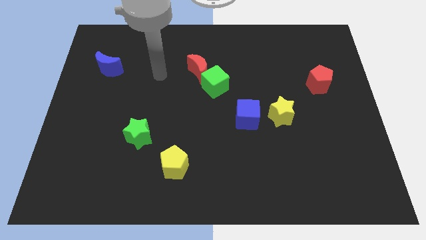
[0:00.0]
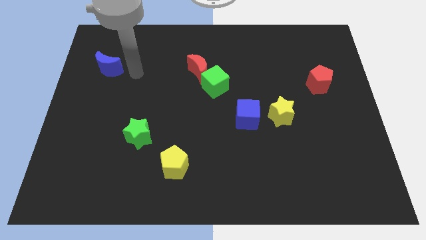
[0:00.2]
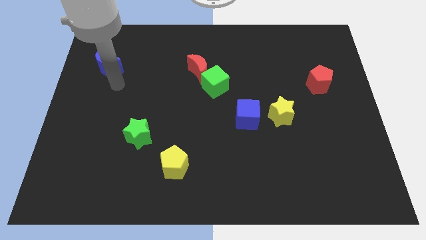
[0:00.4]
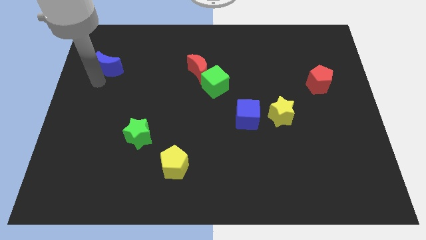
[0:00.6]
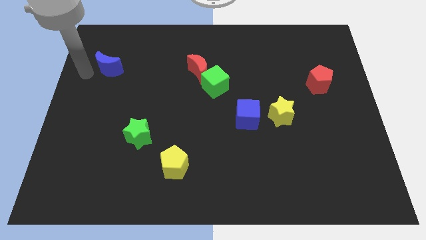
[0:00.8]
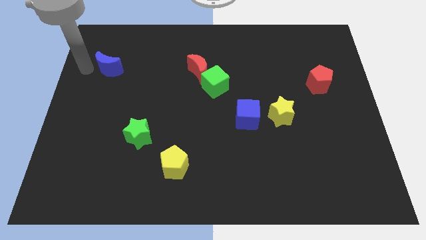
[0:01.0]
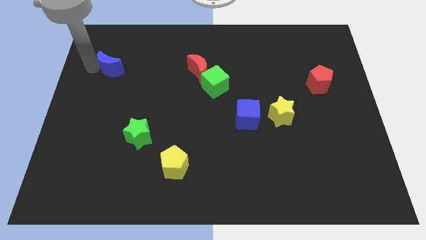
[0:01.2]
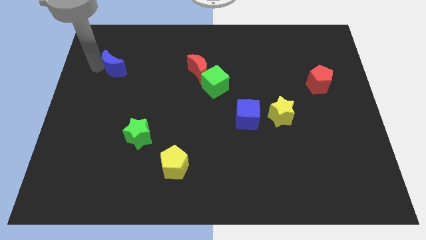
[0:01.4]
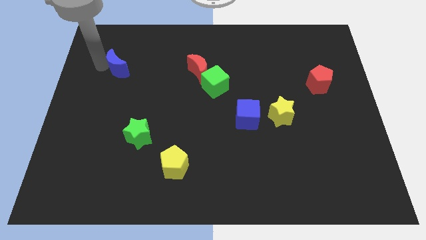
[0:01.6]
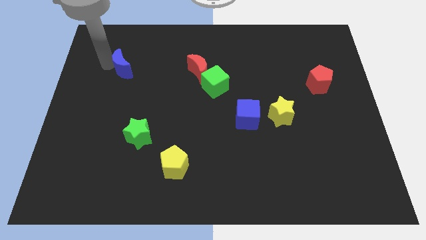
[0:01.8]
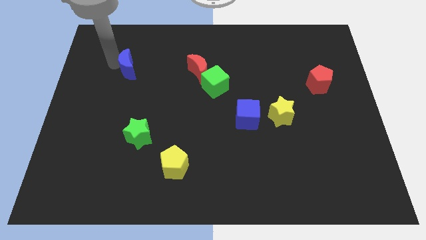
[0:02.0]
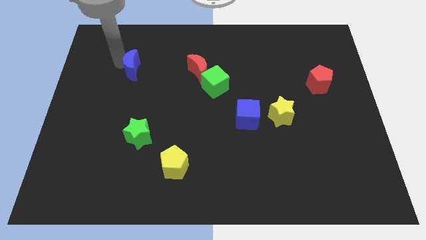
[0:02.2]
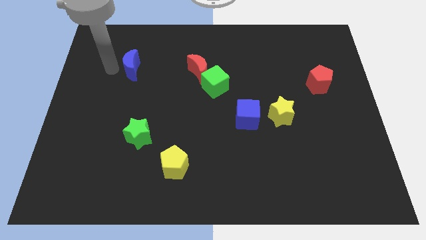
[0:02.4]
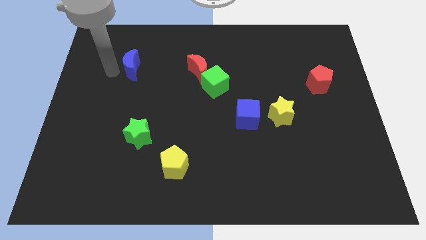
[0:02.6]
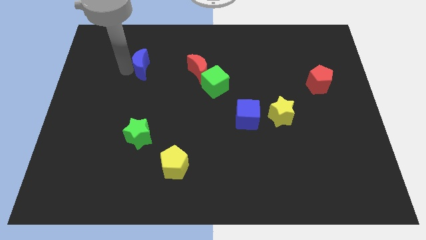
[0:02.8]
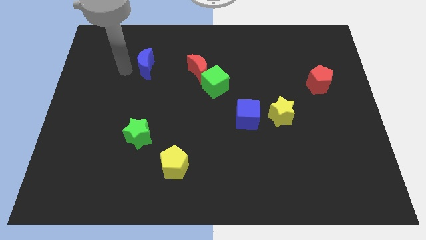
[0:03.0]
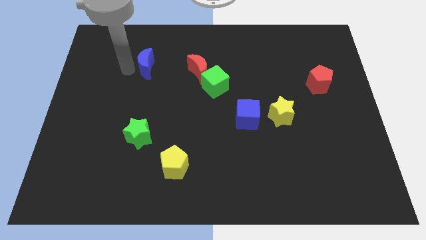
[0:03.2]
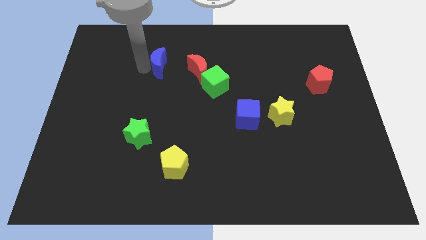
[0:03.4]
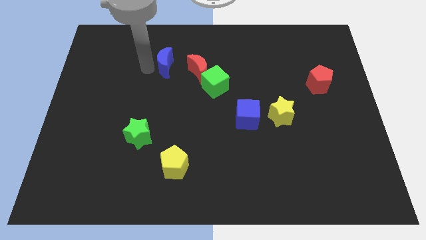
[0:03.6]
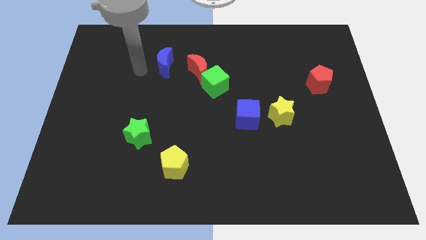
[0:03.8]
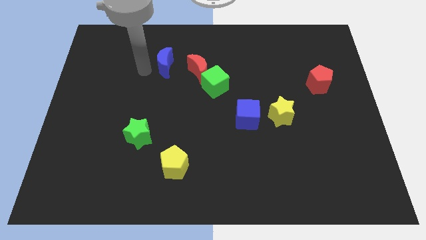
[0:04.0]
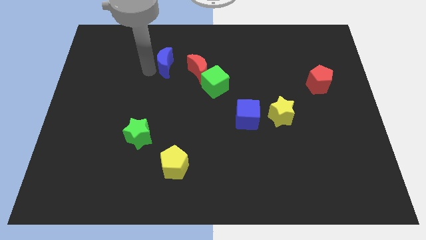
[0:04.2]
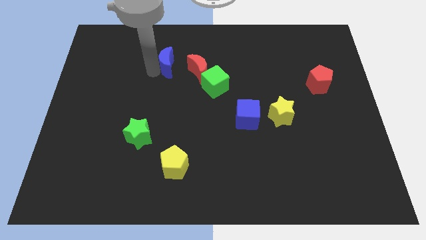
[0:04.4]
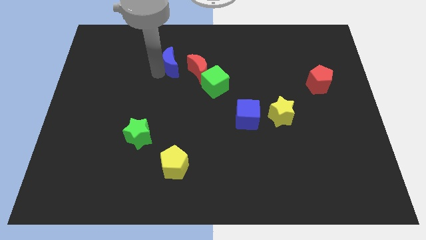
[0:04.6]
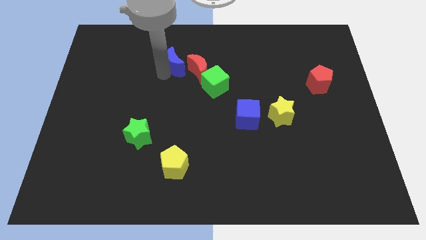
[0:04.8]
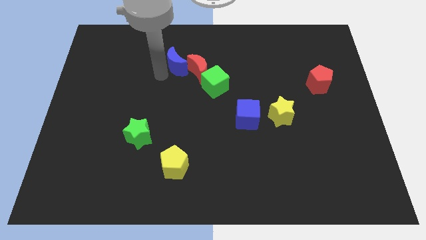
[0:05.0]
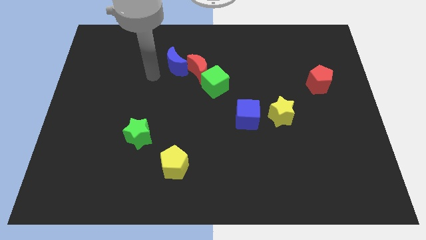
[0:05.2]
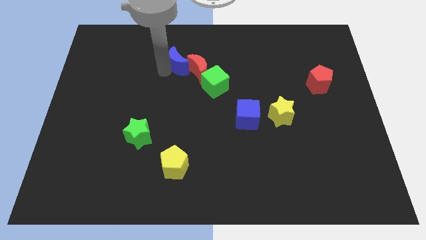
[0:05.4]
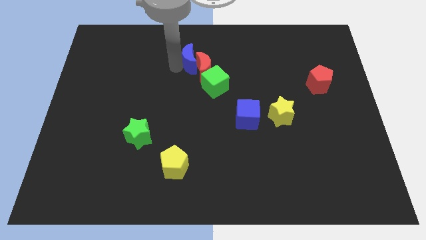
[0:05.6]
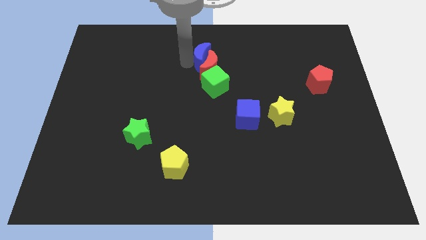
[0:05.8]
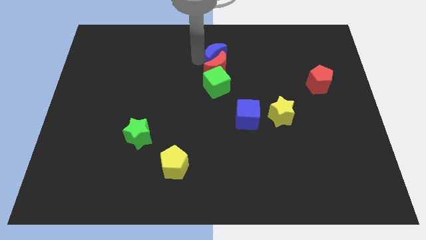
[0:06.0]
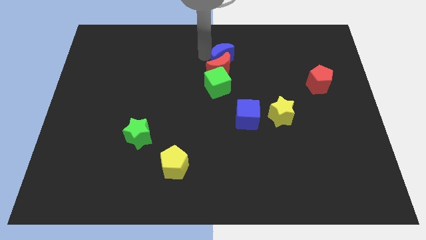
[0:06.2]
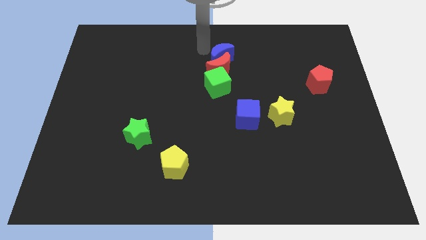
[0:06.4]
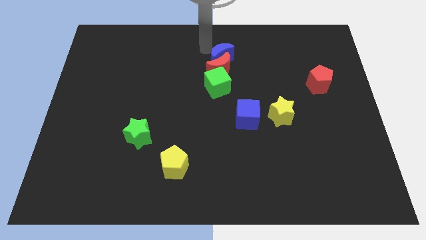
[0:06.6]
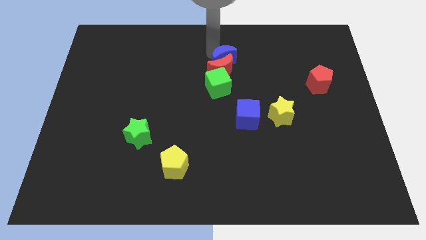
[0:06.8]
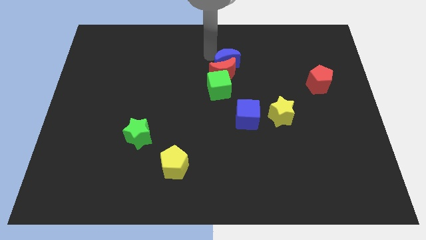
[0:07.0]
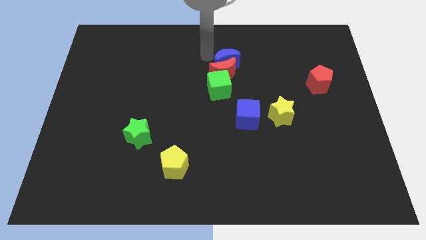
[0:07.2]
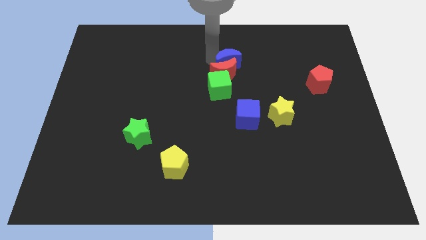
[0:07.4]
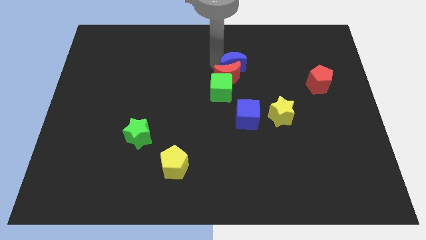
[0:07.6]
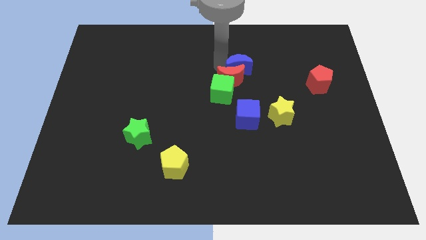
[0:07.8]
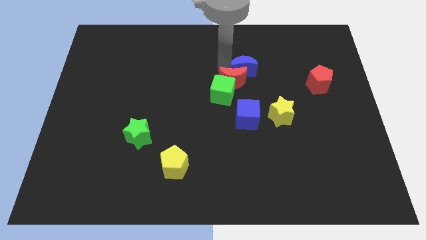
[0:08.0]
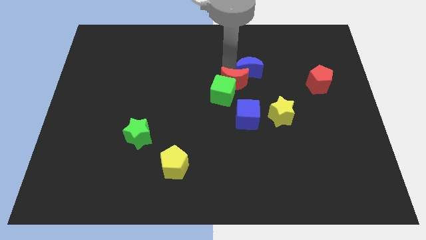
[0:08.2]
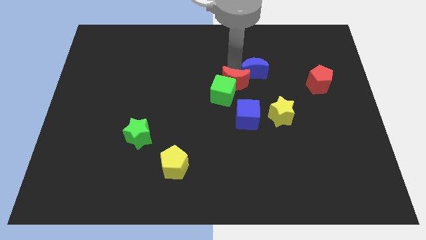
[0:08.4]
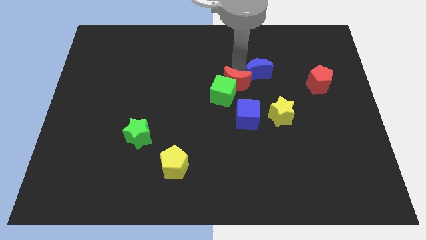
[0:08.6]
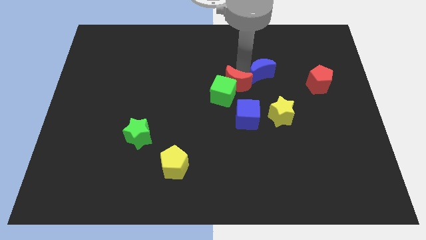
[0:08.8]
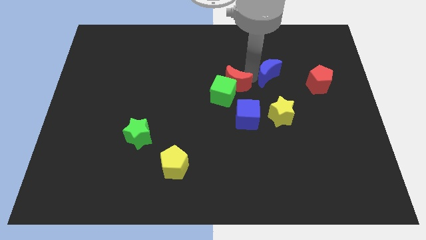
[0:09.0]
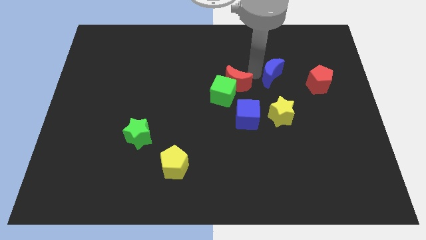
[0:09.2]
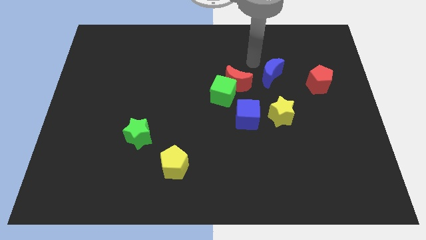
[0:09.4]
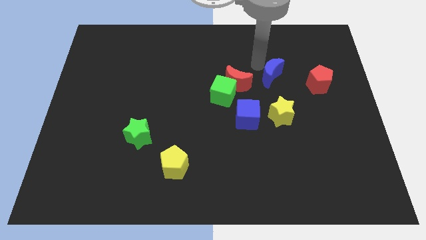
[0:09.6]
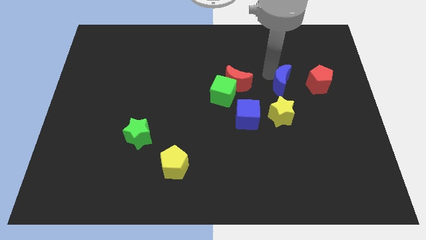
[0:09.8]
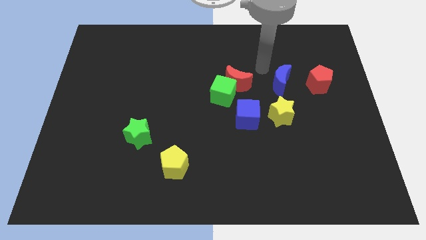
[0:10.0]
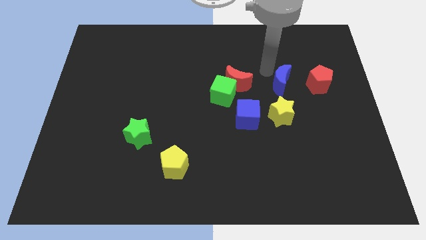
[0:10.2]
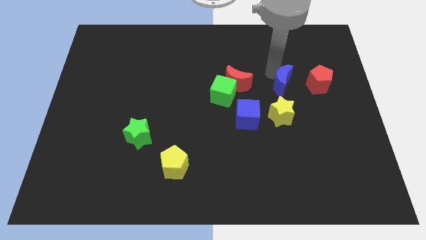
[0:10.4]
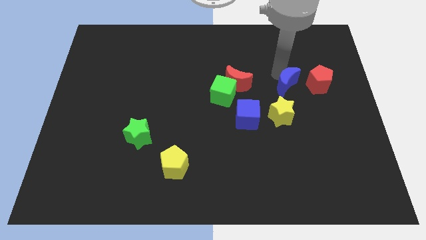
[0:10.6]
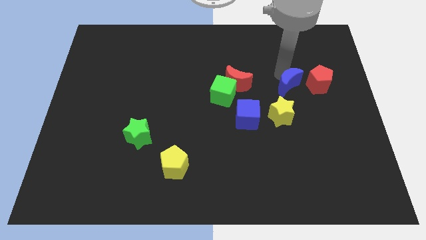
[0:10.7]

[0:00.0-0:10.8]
move the blue moon to the bottom left side of the red pentagon

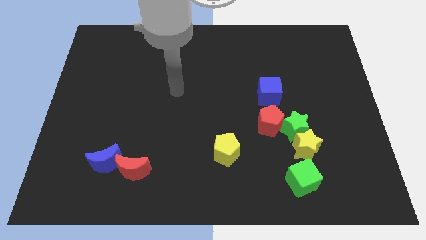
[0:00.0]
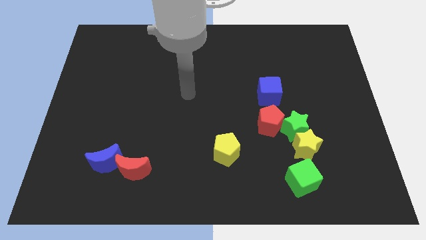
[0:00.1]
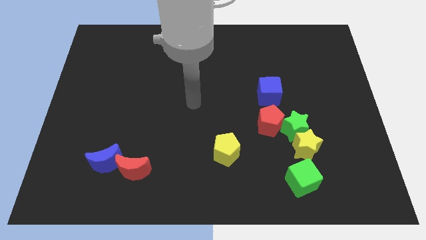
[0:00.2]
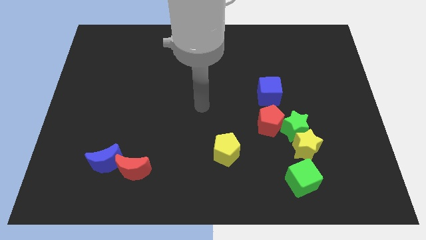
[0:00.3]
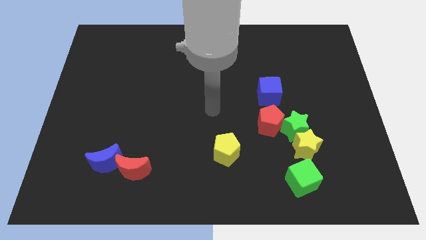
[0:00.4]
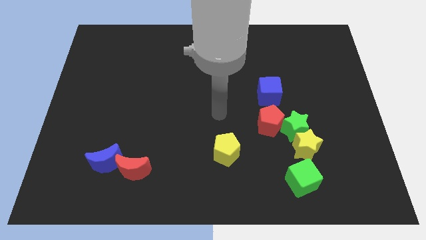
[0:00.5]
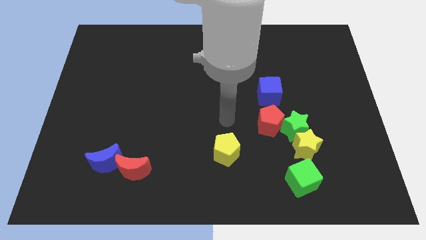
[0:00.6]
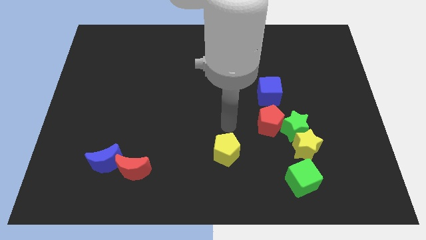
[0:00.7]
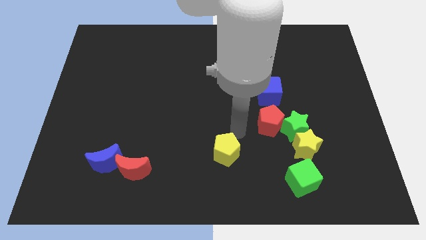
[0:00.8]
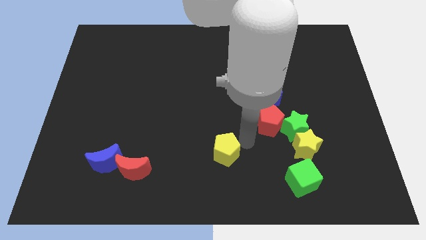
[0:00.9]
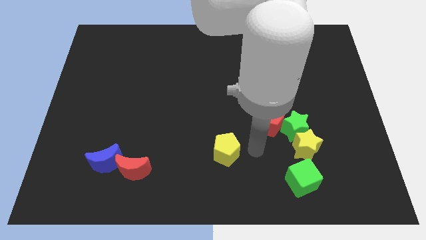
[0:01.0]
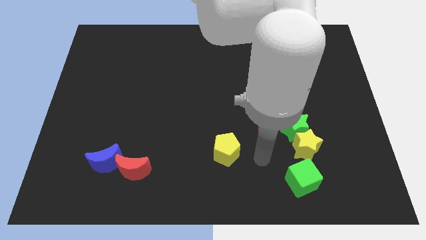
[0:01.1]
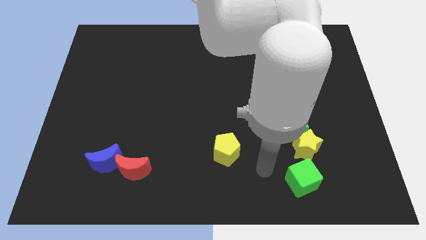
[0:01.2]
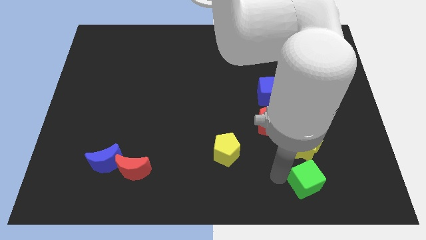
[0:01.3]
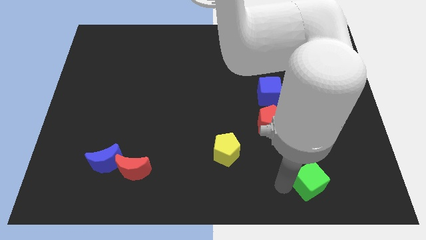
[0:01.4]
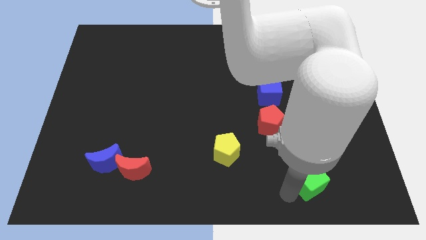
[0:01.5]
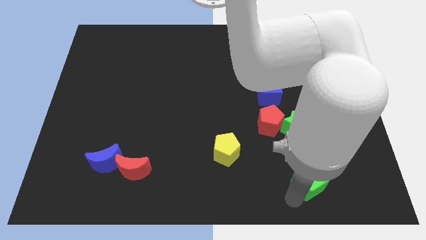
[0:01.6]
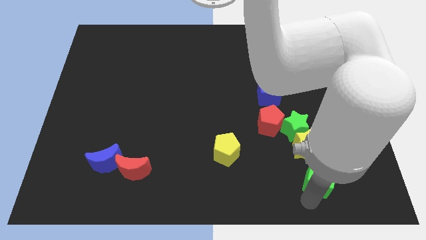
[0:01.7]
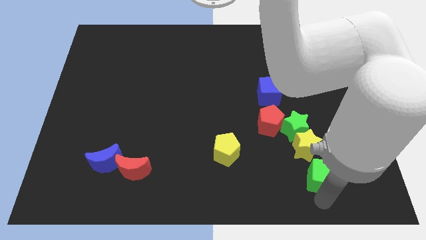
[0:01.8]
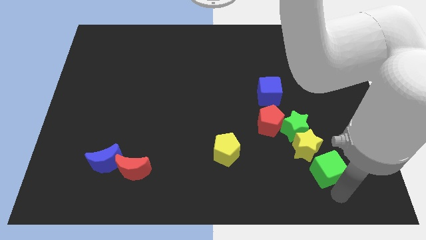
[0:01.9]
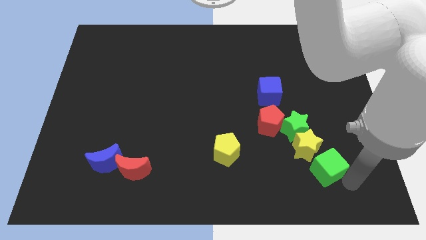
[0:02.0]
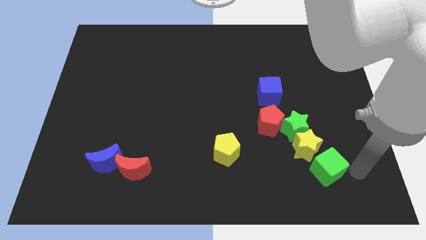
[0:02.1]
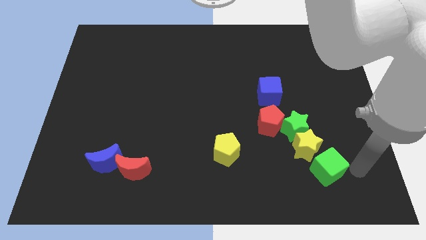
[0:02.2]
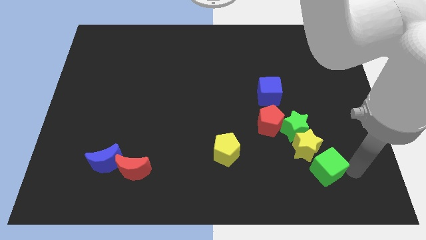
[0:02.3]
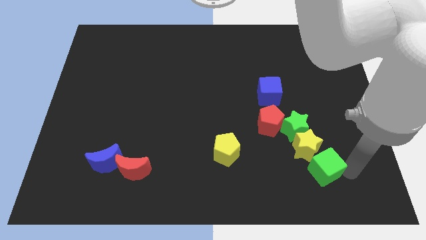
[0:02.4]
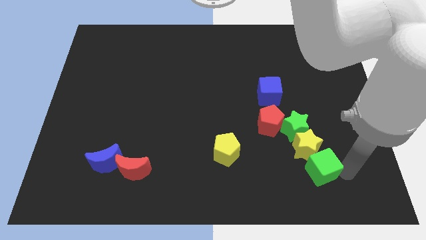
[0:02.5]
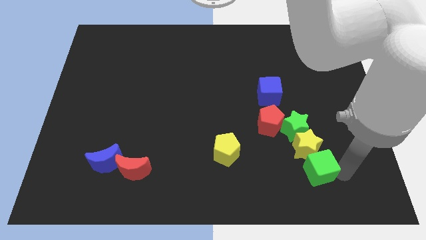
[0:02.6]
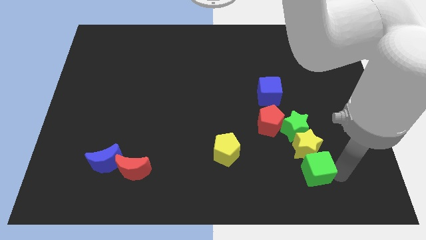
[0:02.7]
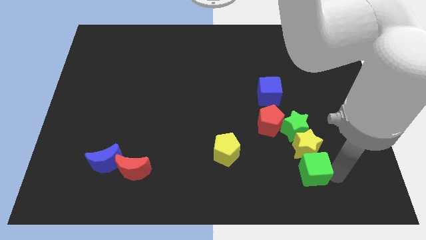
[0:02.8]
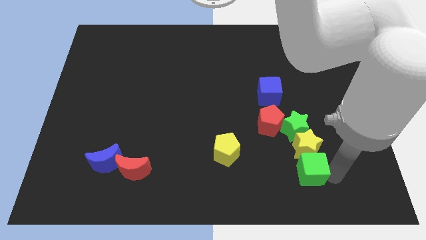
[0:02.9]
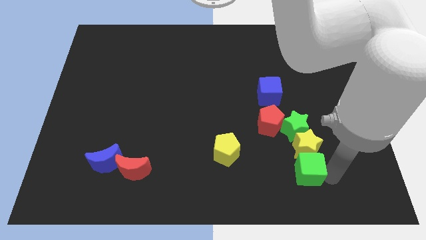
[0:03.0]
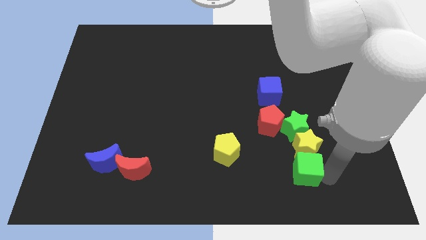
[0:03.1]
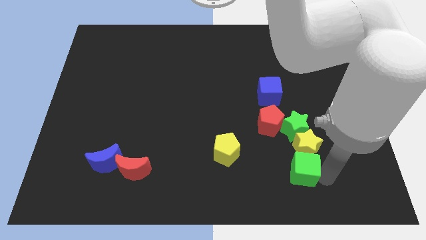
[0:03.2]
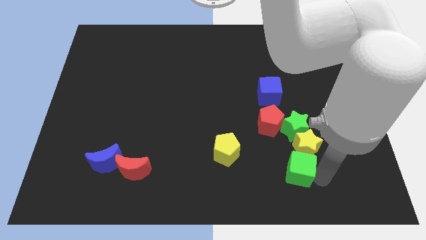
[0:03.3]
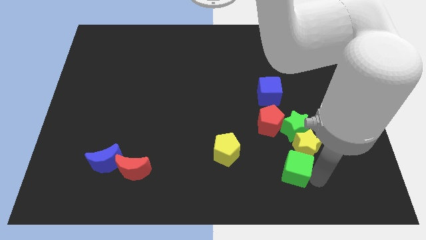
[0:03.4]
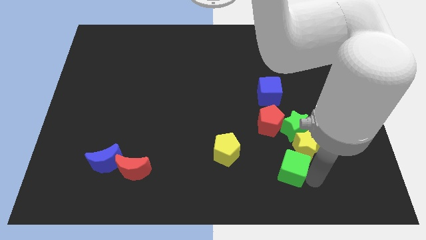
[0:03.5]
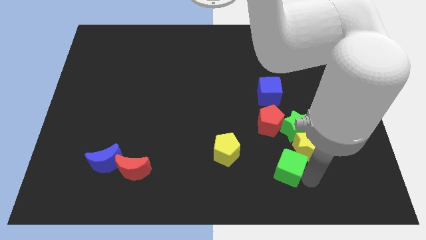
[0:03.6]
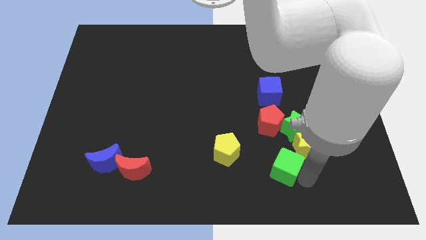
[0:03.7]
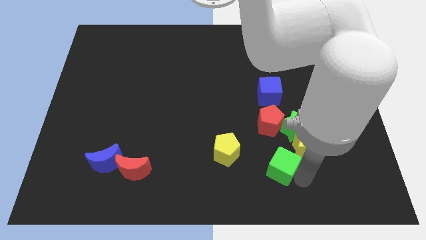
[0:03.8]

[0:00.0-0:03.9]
put the green cube to the bottom left side of the green star
